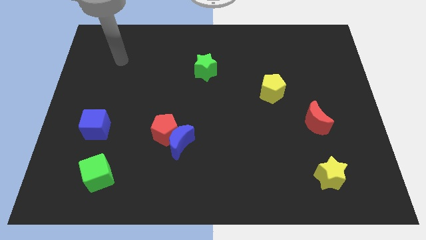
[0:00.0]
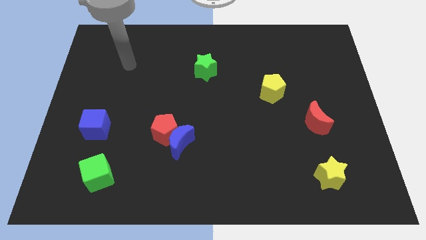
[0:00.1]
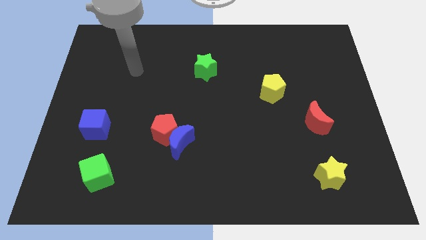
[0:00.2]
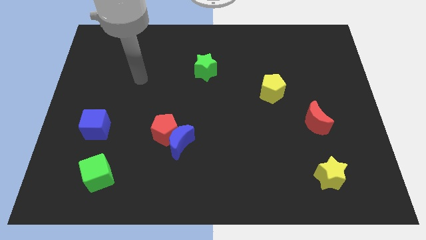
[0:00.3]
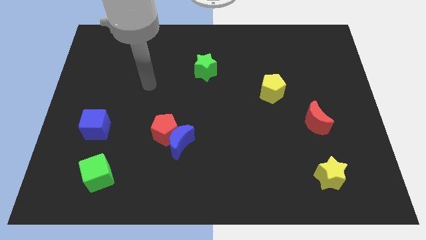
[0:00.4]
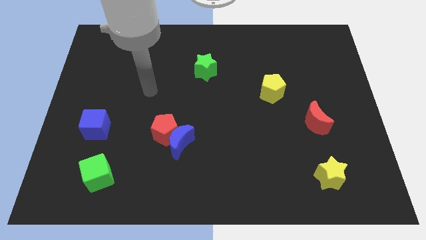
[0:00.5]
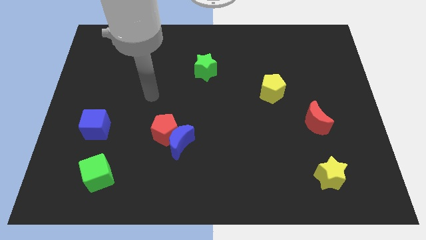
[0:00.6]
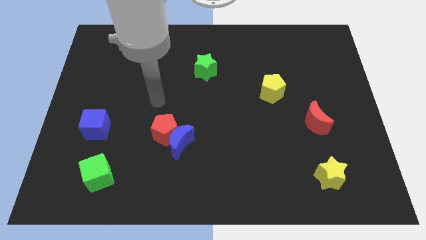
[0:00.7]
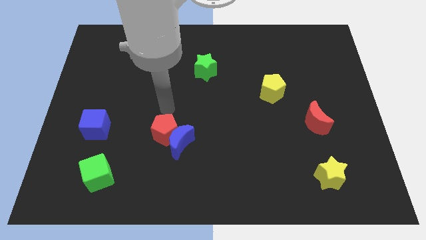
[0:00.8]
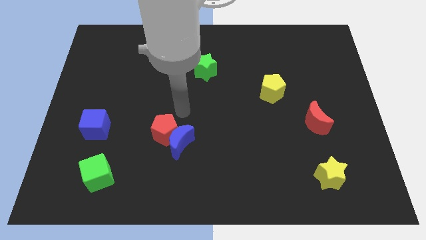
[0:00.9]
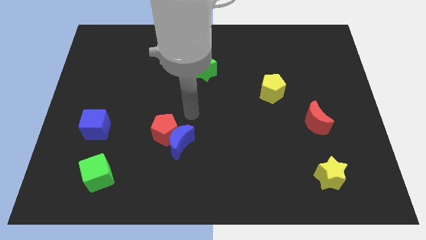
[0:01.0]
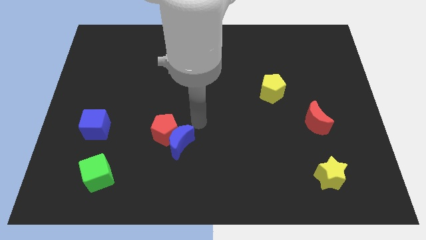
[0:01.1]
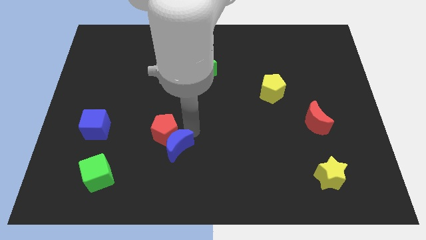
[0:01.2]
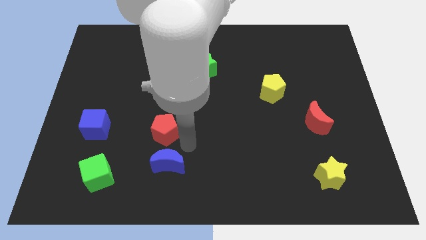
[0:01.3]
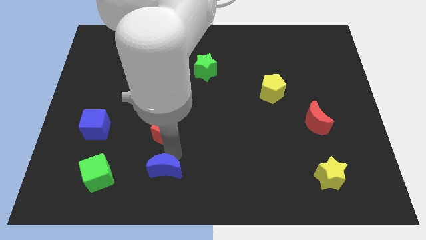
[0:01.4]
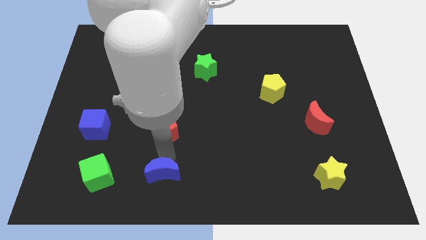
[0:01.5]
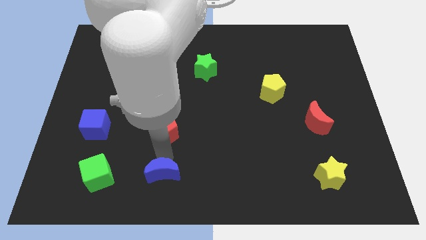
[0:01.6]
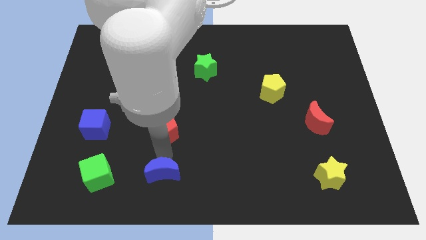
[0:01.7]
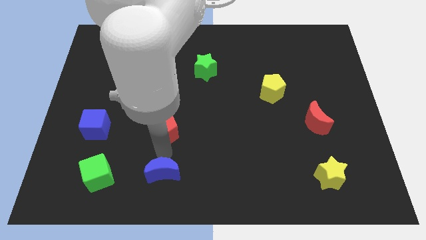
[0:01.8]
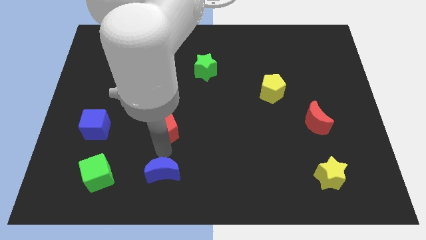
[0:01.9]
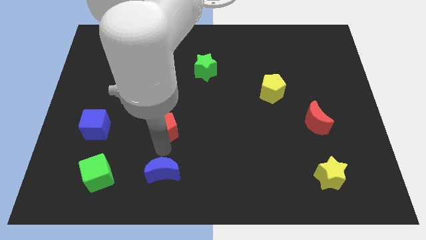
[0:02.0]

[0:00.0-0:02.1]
pull the red pentagon apart from the blue moon

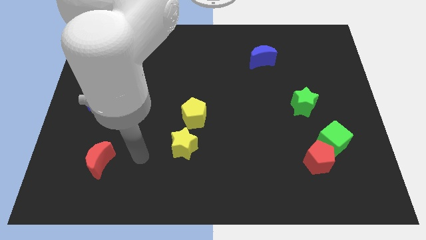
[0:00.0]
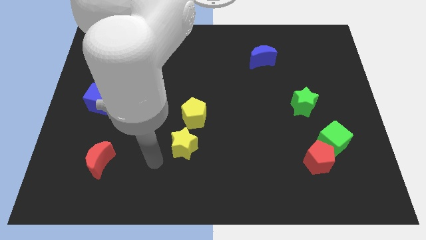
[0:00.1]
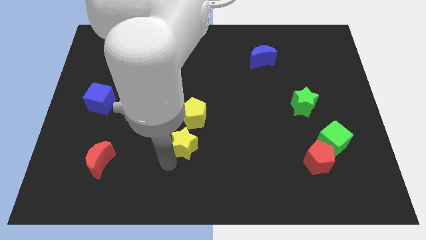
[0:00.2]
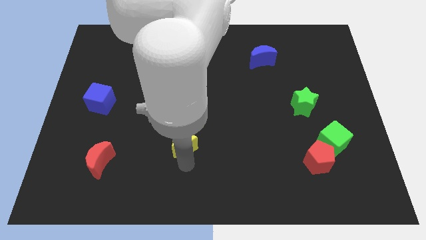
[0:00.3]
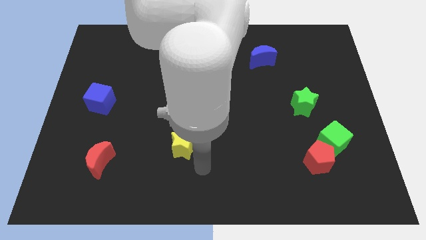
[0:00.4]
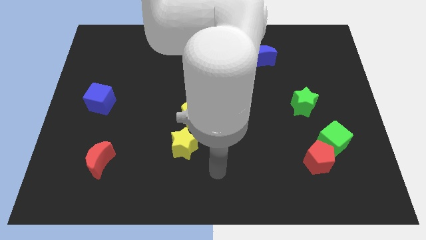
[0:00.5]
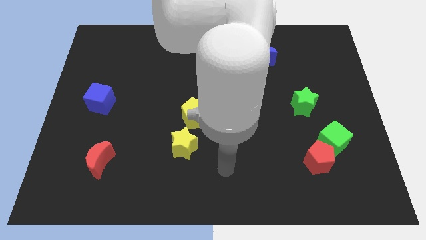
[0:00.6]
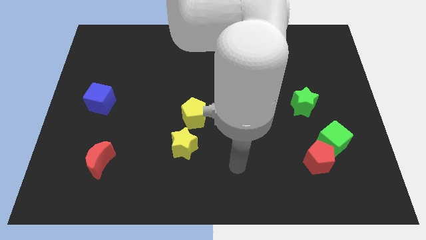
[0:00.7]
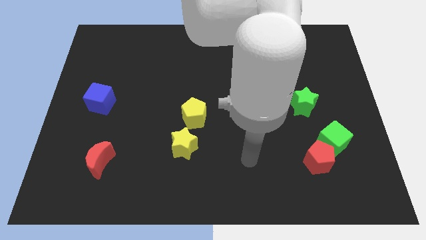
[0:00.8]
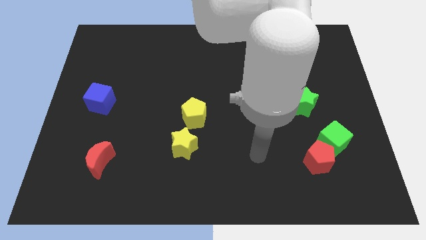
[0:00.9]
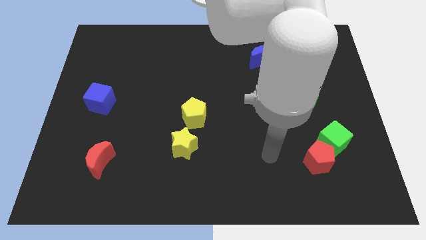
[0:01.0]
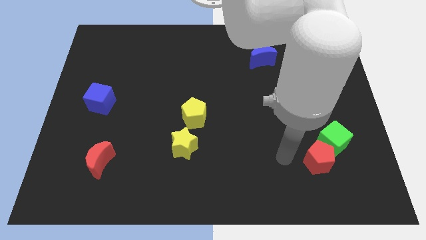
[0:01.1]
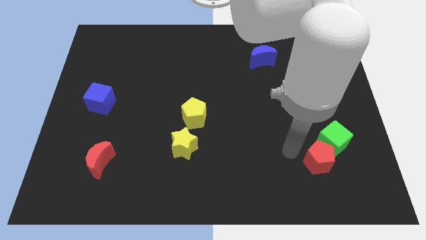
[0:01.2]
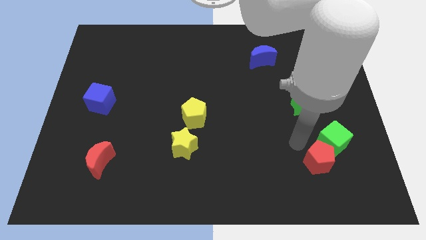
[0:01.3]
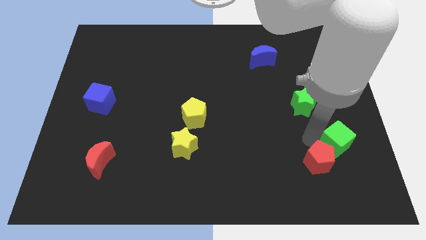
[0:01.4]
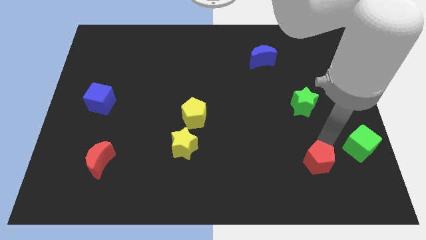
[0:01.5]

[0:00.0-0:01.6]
move the red pentagon away from the green cube

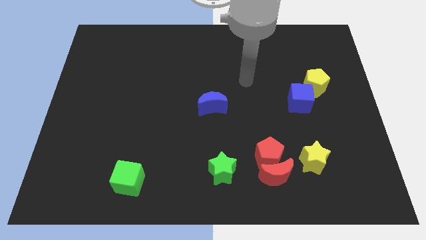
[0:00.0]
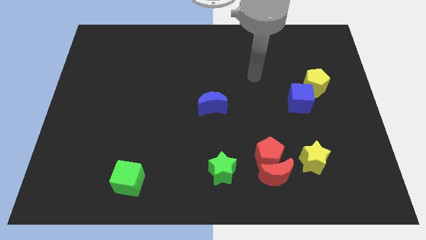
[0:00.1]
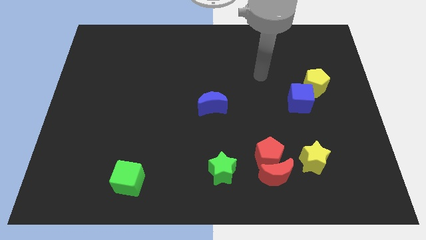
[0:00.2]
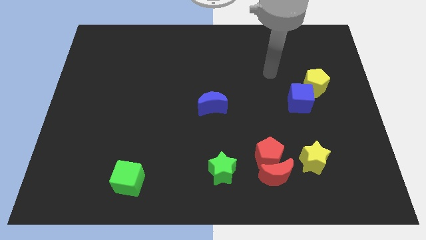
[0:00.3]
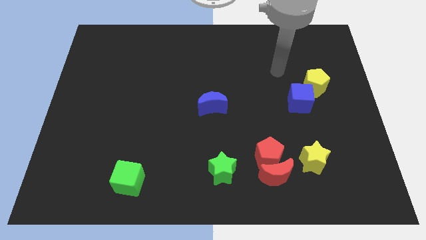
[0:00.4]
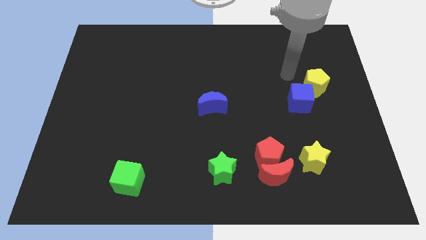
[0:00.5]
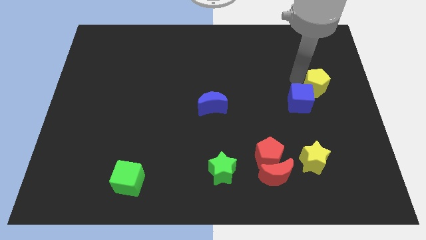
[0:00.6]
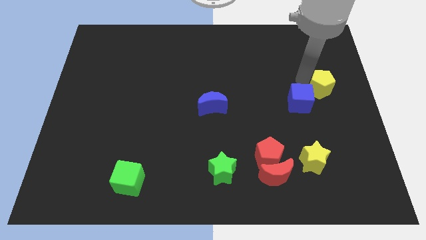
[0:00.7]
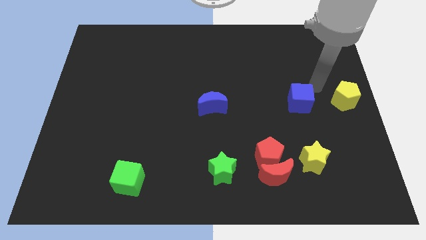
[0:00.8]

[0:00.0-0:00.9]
move the blue cube away from the yellow pentagon

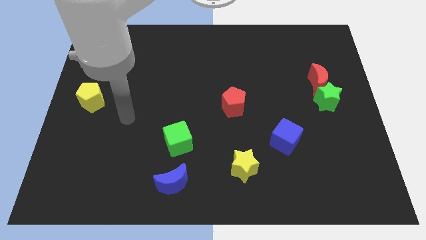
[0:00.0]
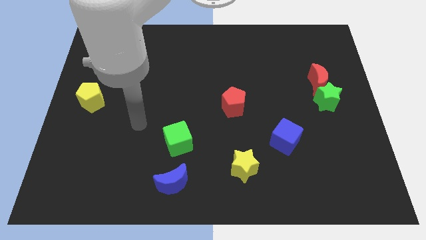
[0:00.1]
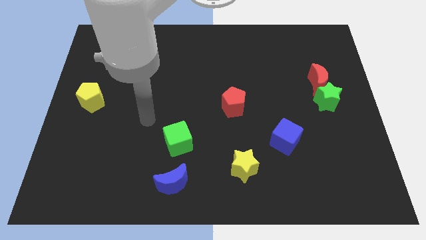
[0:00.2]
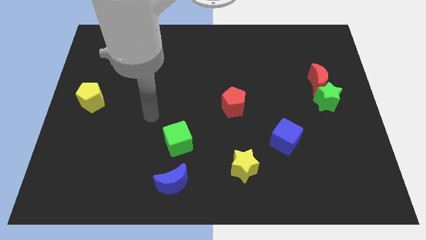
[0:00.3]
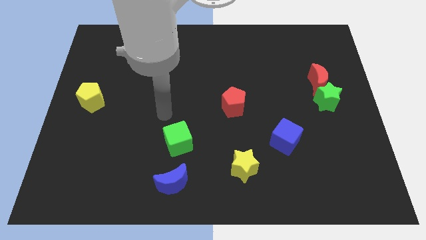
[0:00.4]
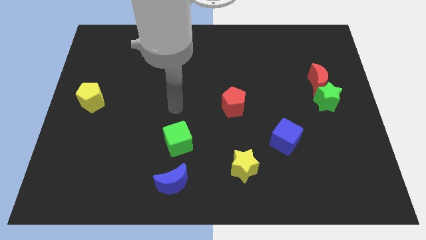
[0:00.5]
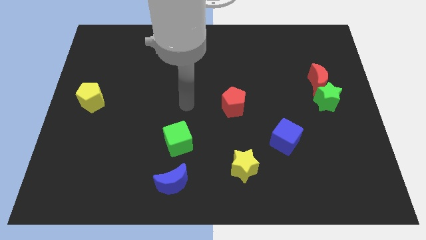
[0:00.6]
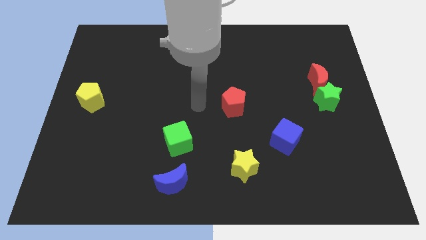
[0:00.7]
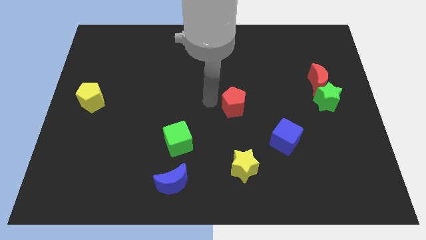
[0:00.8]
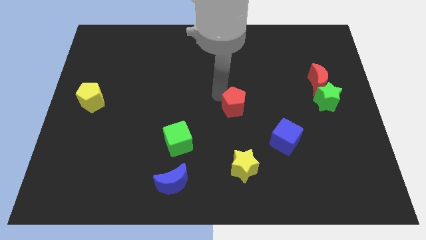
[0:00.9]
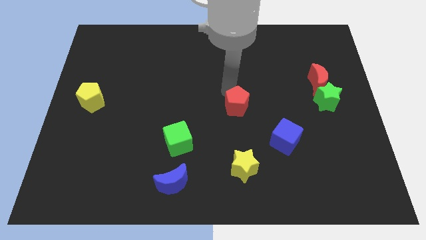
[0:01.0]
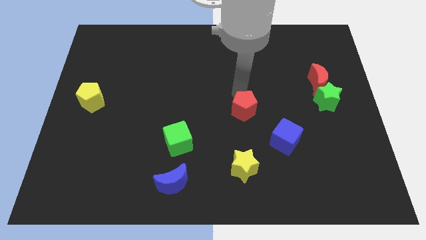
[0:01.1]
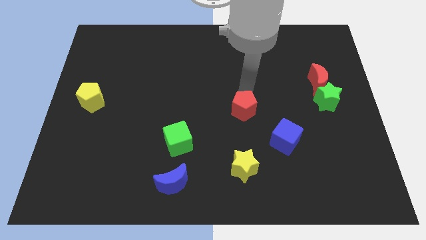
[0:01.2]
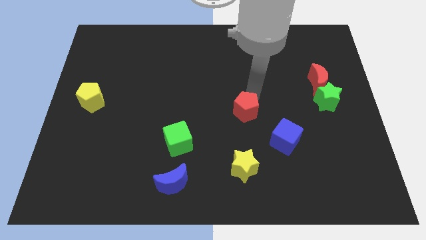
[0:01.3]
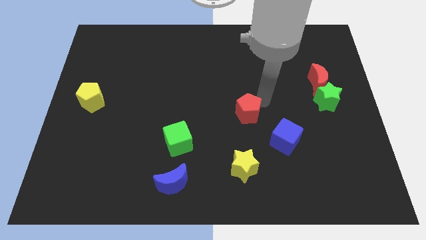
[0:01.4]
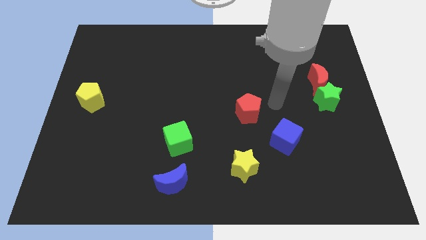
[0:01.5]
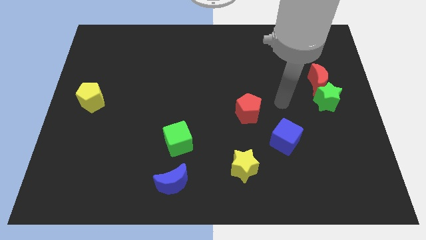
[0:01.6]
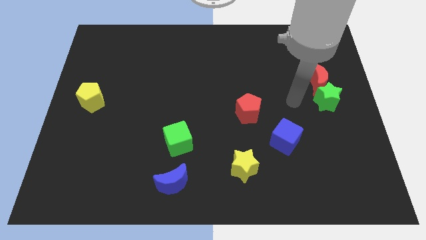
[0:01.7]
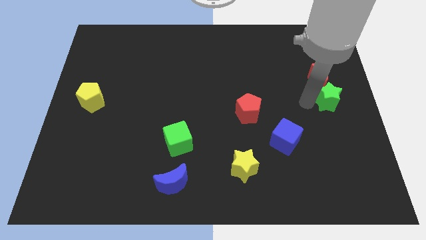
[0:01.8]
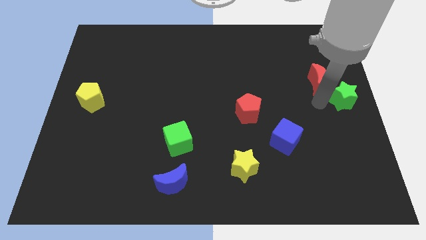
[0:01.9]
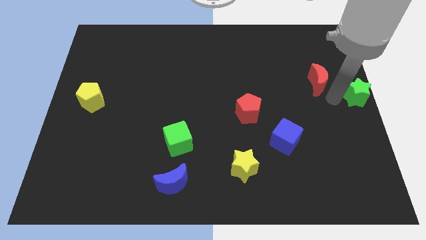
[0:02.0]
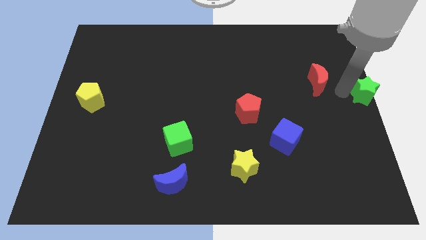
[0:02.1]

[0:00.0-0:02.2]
separate the red moon from the green star

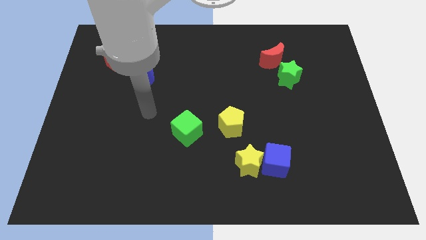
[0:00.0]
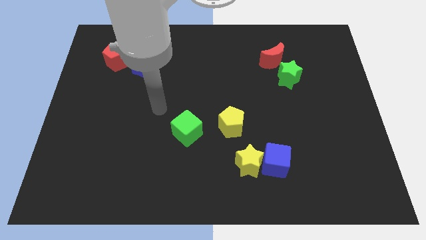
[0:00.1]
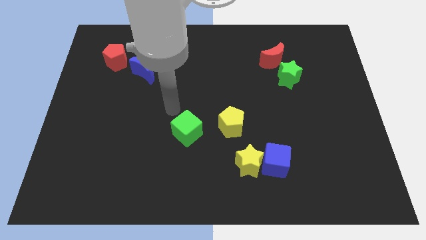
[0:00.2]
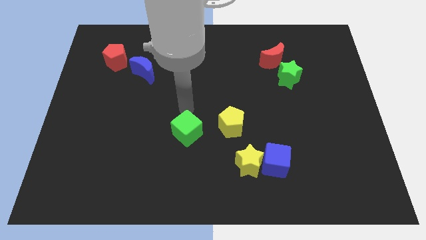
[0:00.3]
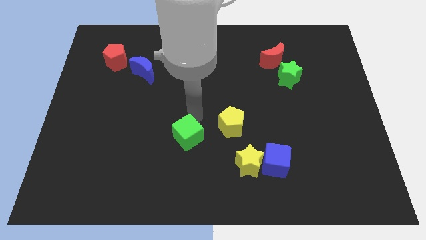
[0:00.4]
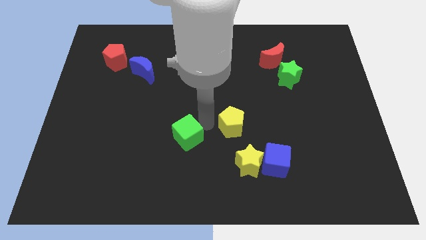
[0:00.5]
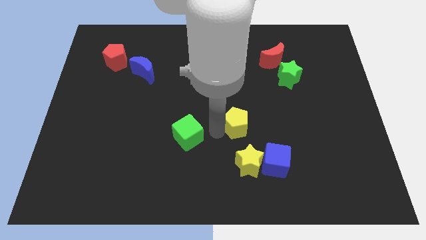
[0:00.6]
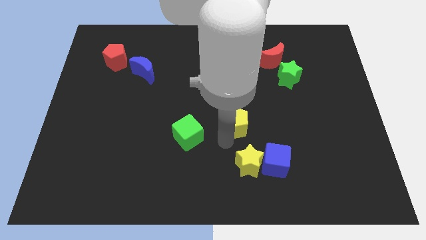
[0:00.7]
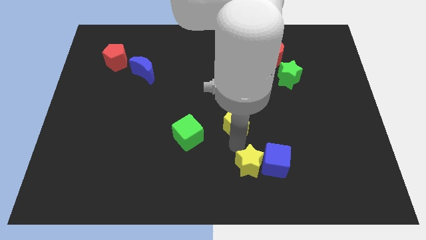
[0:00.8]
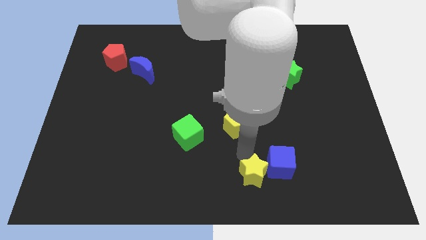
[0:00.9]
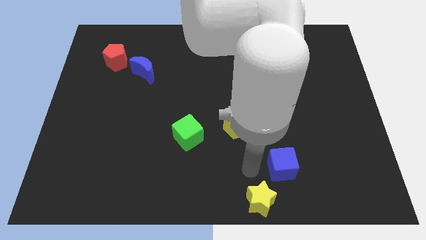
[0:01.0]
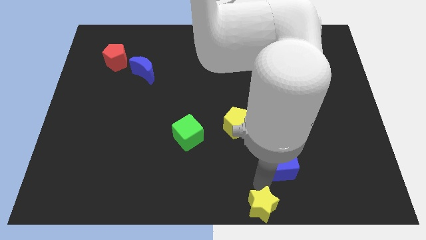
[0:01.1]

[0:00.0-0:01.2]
pull the blue cube apart from the yellow star

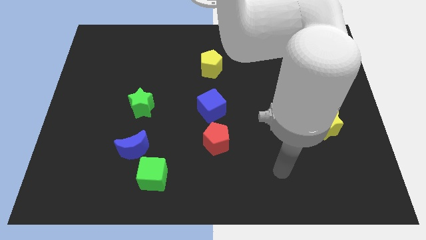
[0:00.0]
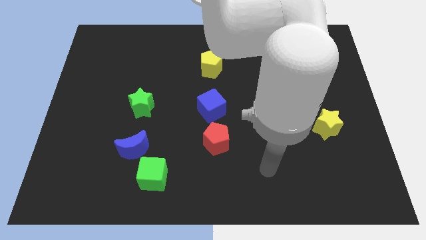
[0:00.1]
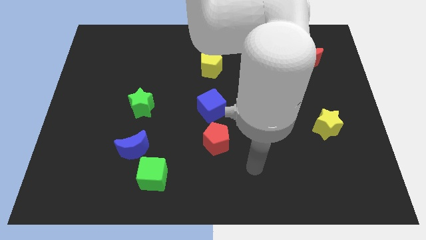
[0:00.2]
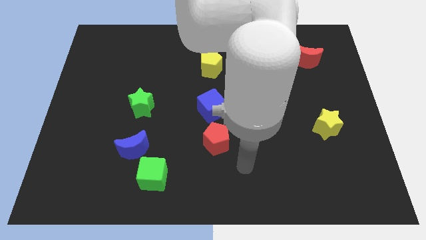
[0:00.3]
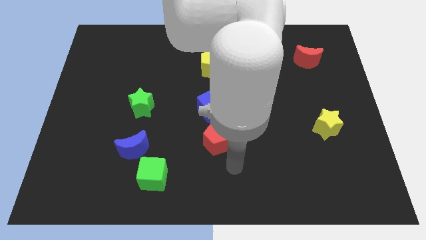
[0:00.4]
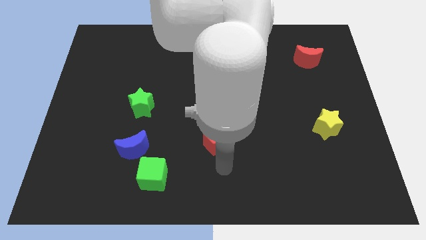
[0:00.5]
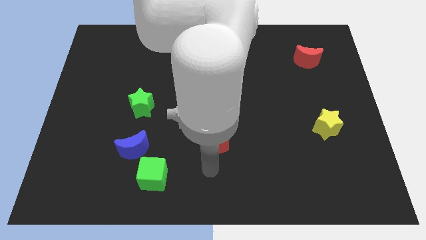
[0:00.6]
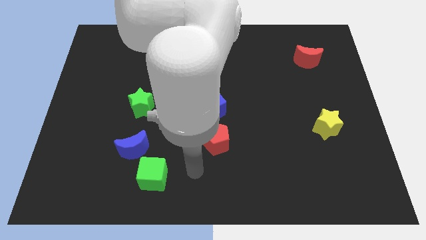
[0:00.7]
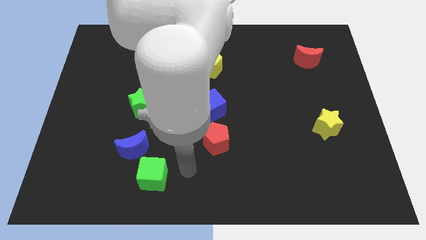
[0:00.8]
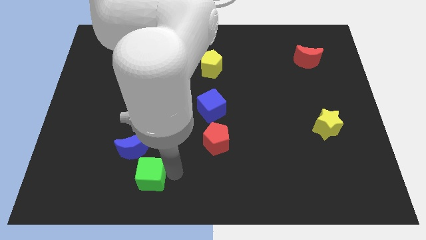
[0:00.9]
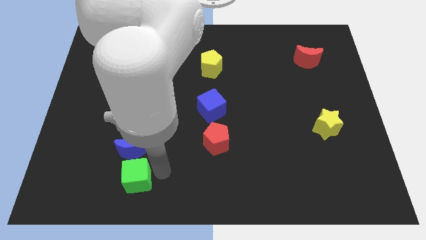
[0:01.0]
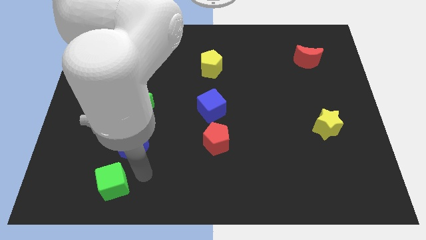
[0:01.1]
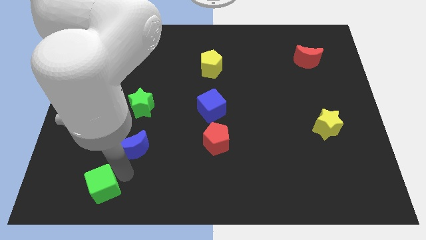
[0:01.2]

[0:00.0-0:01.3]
pull the blue moon apart from the green cube

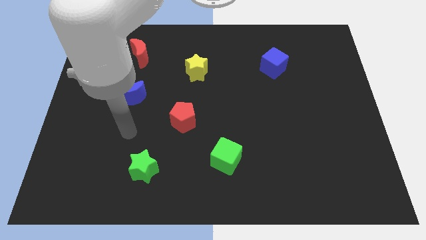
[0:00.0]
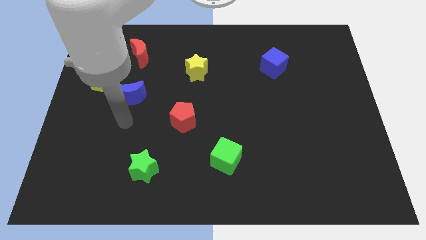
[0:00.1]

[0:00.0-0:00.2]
move the blue moon away from the yellow pentagon
